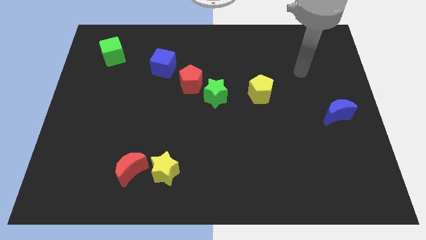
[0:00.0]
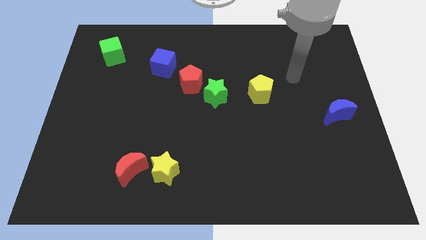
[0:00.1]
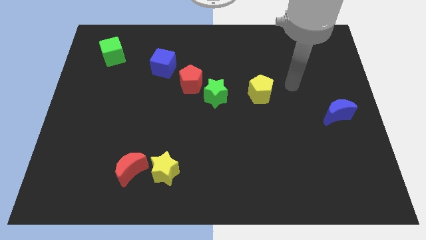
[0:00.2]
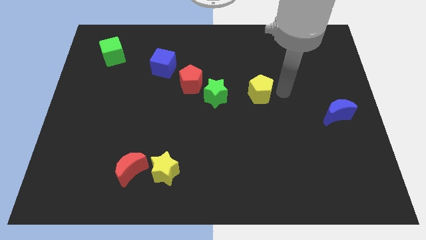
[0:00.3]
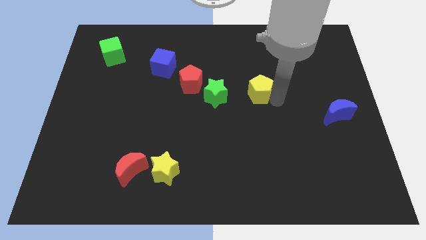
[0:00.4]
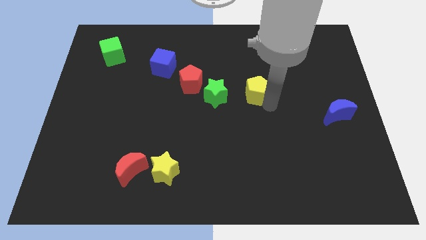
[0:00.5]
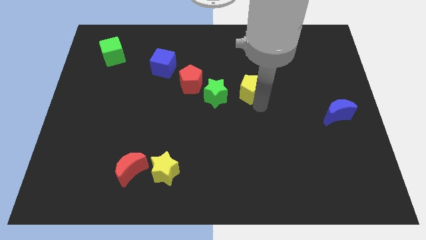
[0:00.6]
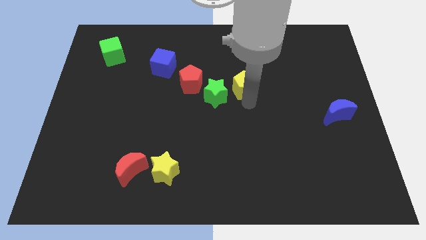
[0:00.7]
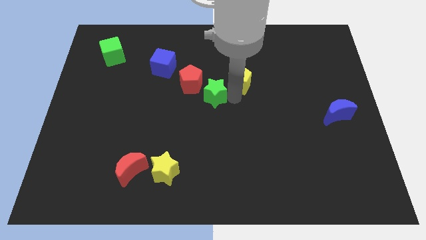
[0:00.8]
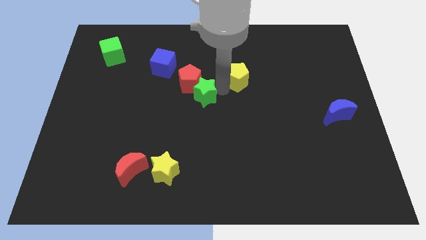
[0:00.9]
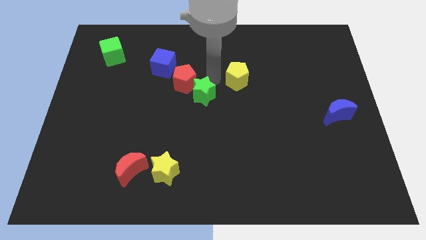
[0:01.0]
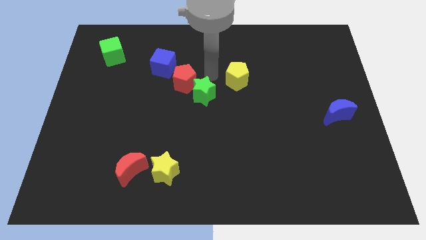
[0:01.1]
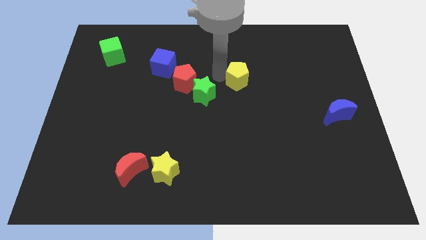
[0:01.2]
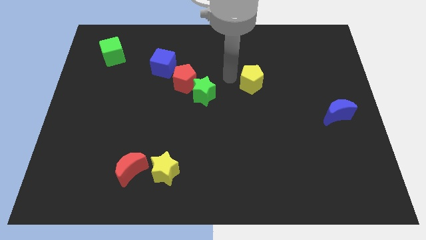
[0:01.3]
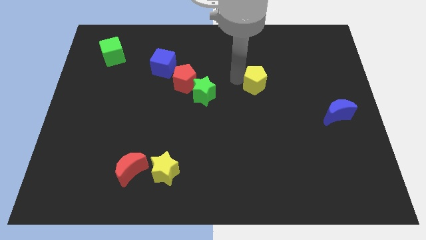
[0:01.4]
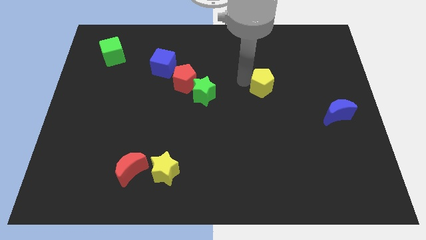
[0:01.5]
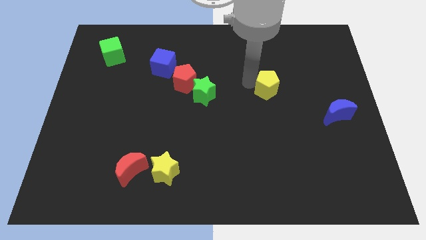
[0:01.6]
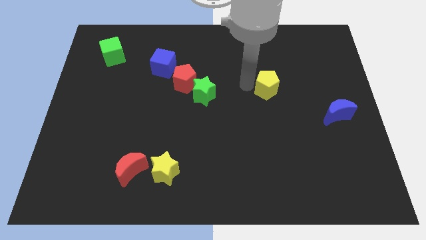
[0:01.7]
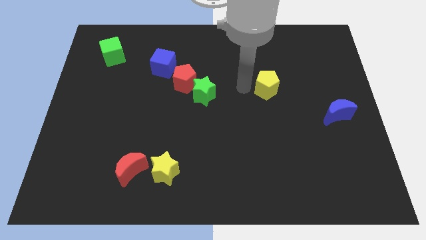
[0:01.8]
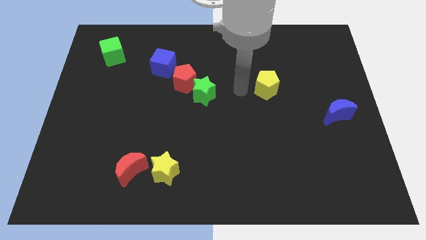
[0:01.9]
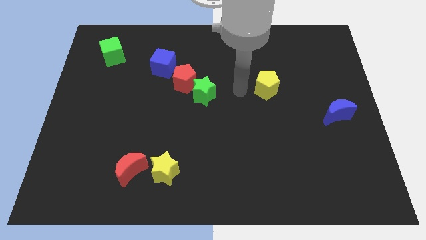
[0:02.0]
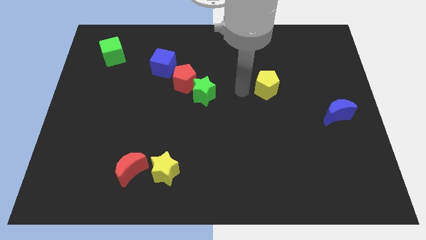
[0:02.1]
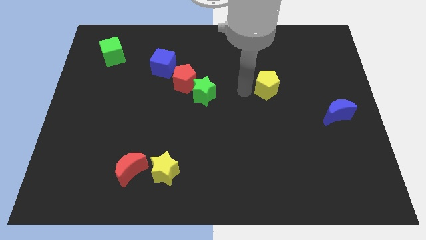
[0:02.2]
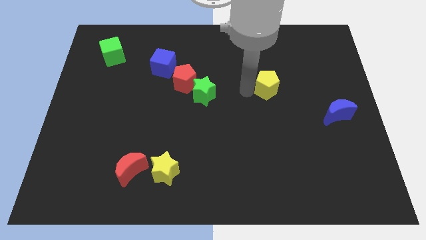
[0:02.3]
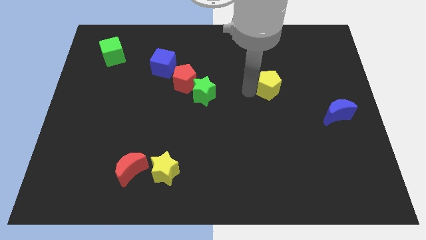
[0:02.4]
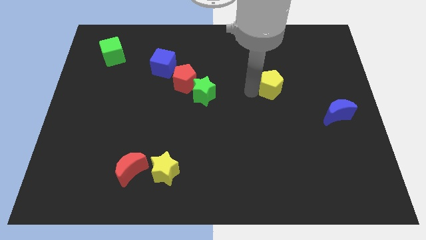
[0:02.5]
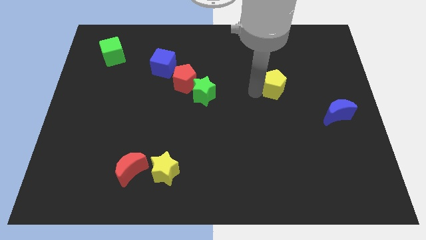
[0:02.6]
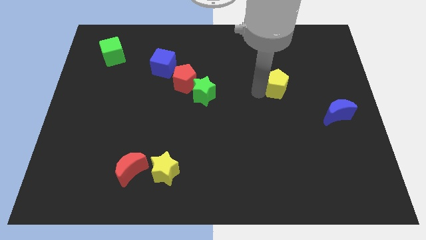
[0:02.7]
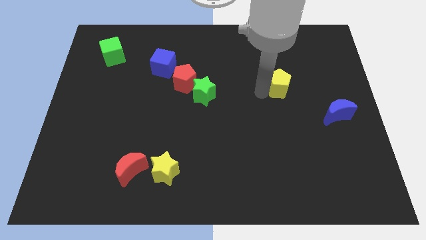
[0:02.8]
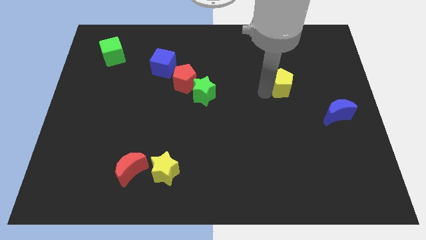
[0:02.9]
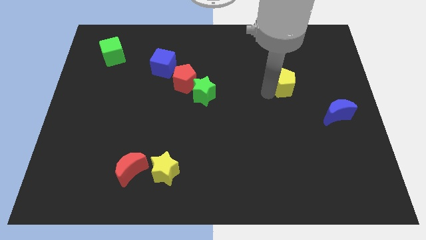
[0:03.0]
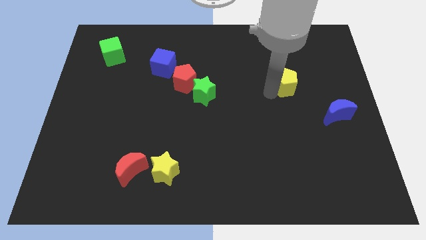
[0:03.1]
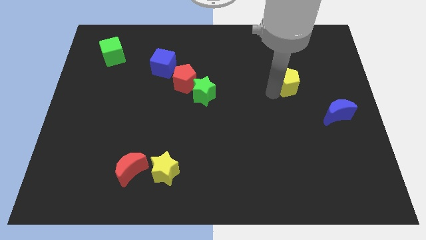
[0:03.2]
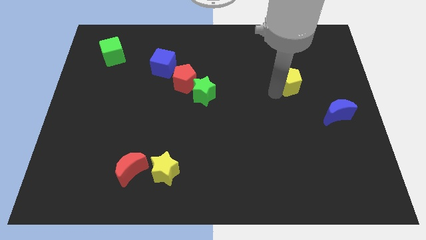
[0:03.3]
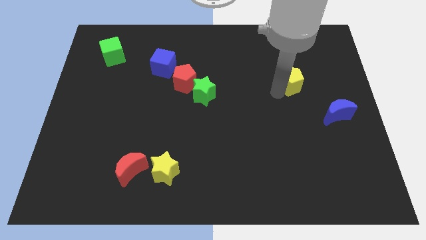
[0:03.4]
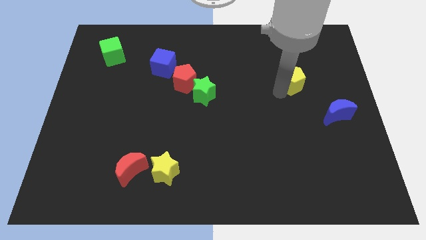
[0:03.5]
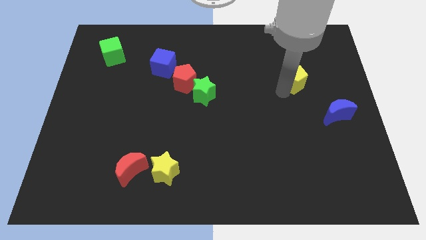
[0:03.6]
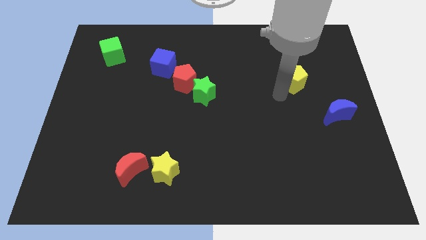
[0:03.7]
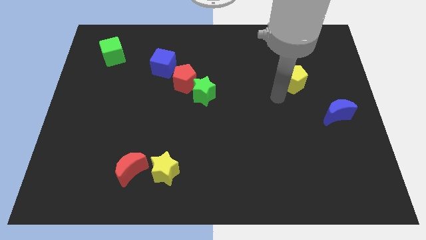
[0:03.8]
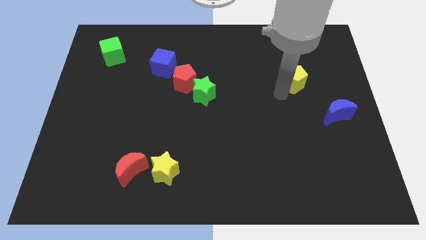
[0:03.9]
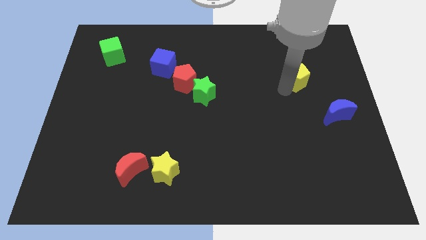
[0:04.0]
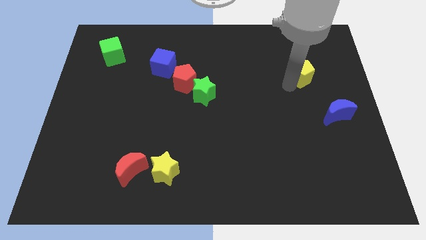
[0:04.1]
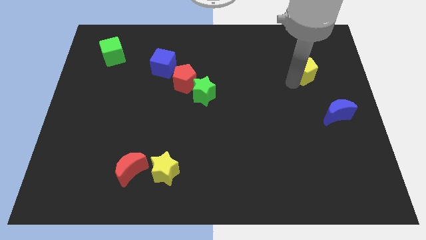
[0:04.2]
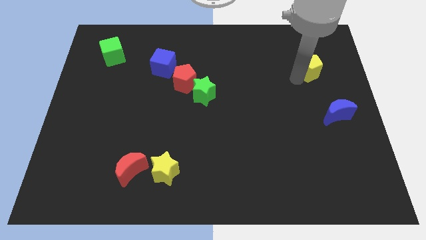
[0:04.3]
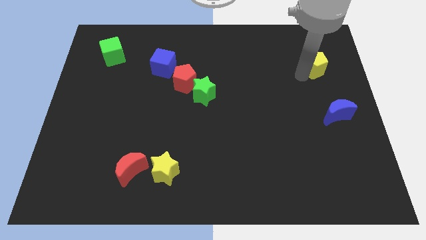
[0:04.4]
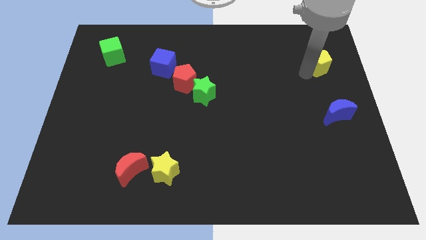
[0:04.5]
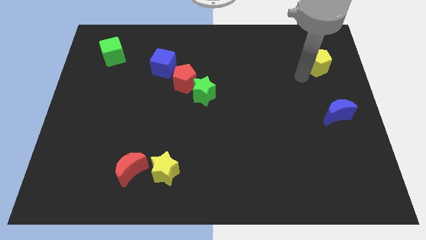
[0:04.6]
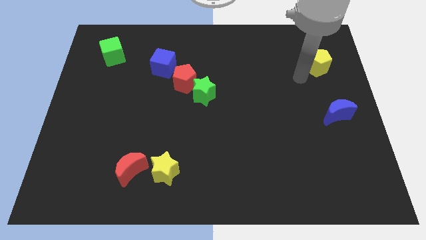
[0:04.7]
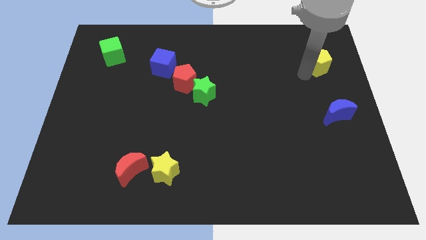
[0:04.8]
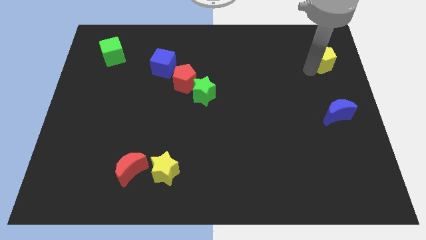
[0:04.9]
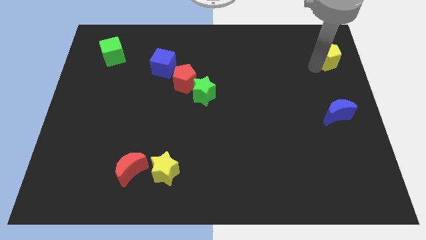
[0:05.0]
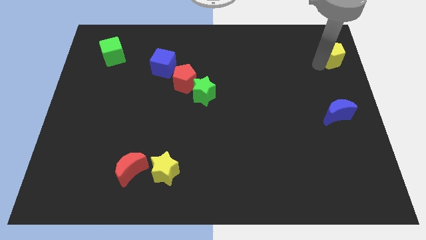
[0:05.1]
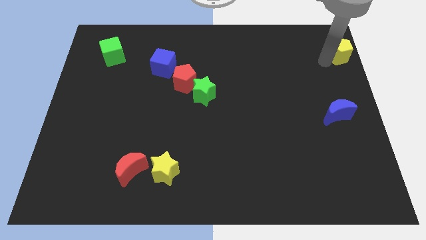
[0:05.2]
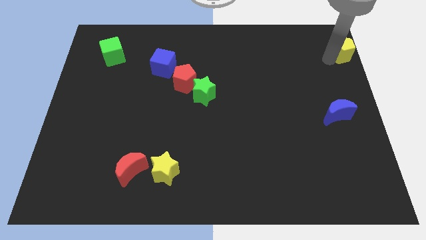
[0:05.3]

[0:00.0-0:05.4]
push the yellow pentagon to the upper right corner

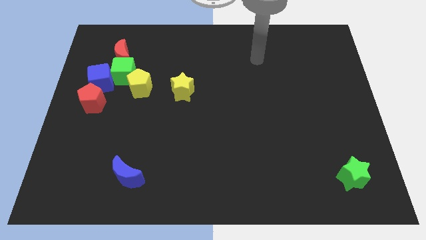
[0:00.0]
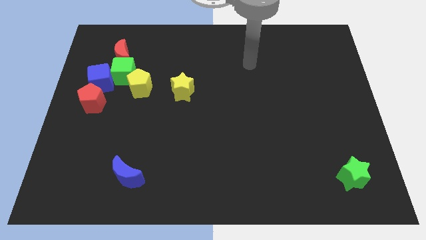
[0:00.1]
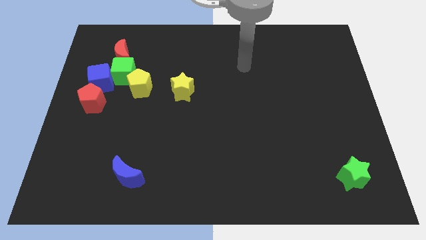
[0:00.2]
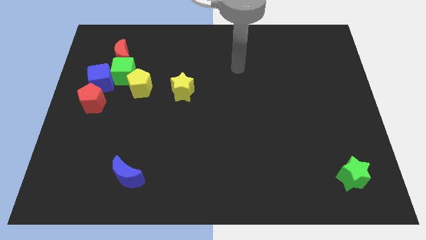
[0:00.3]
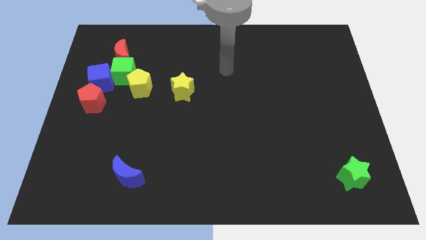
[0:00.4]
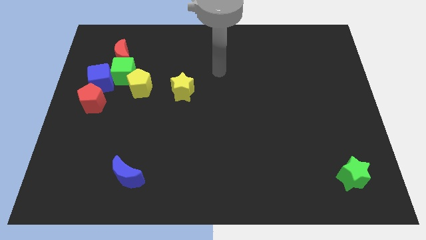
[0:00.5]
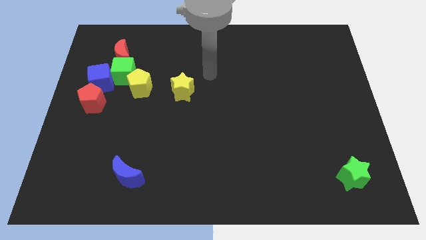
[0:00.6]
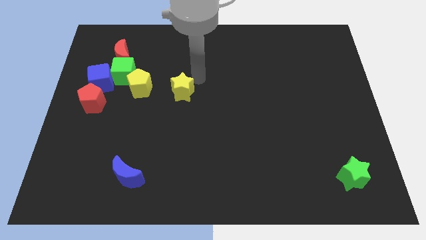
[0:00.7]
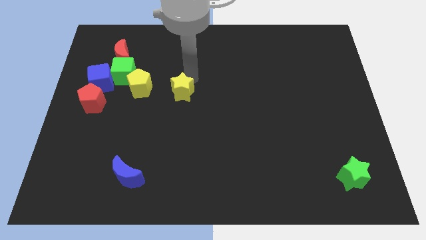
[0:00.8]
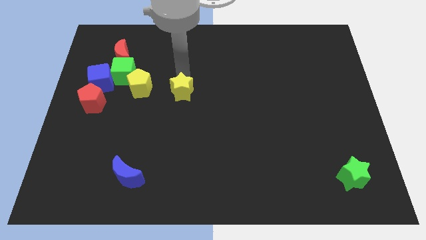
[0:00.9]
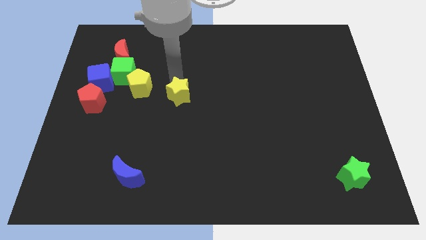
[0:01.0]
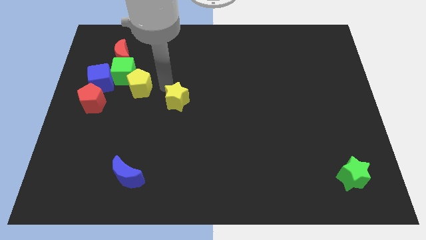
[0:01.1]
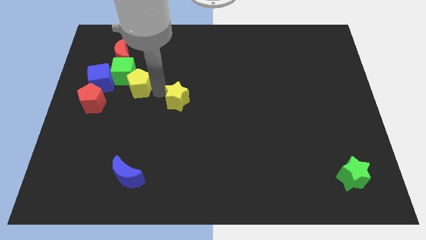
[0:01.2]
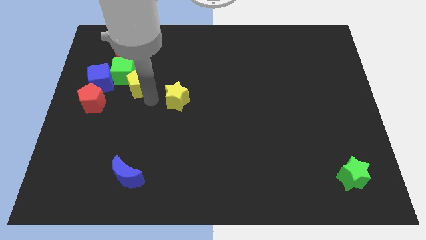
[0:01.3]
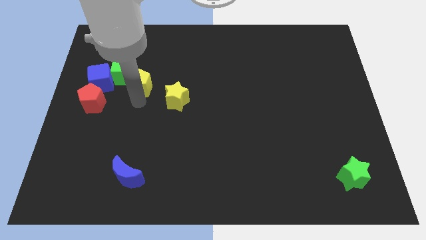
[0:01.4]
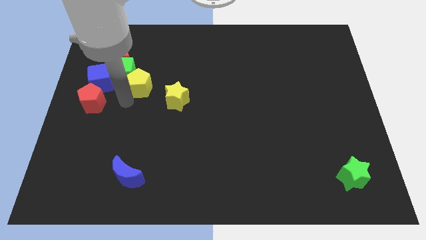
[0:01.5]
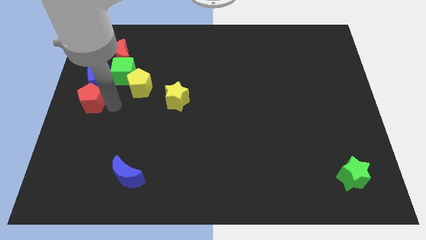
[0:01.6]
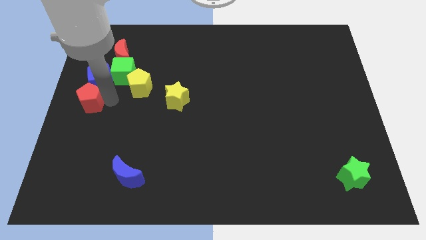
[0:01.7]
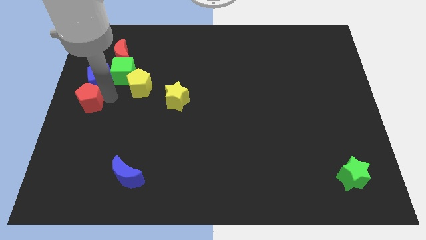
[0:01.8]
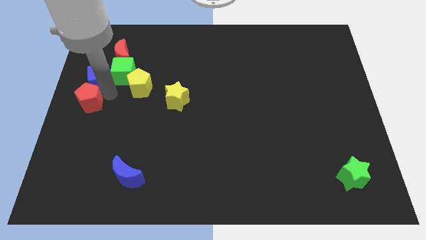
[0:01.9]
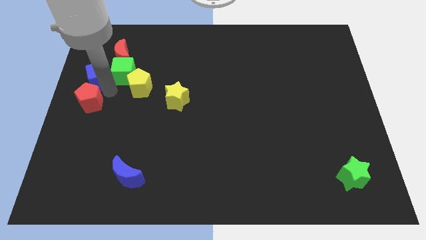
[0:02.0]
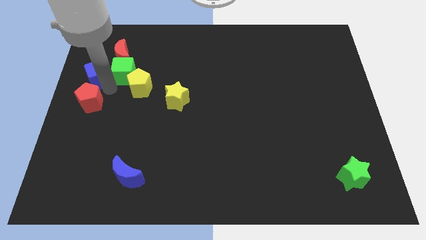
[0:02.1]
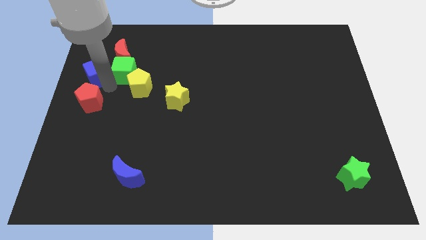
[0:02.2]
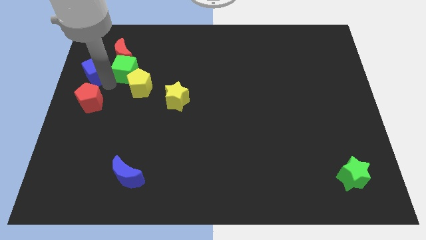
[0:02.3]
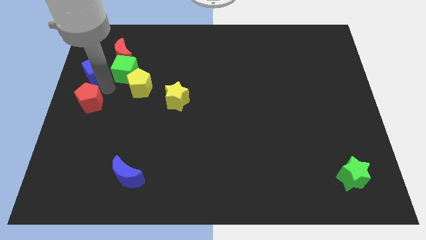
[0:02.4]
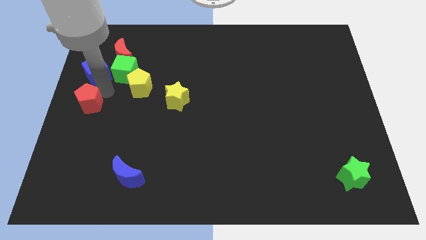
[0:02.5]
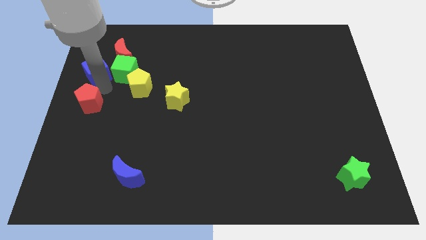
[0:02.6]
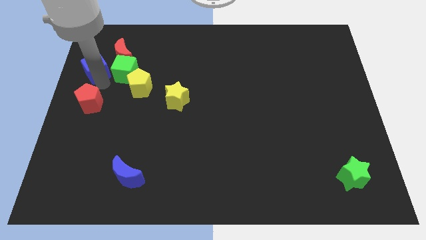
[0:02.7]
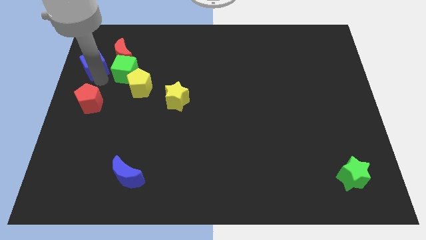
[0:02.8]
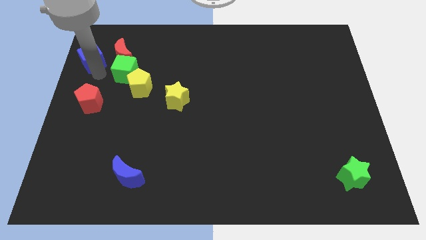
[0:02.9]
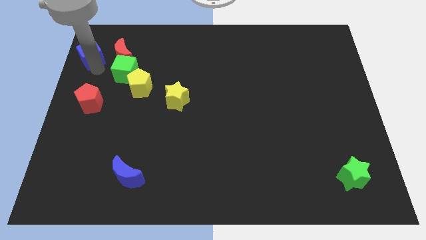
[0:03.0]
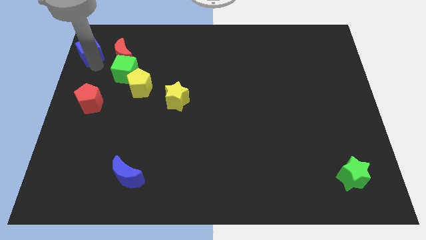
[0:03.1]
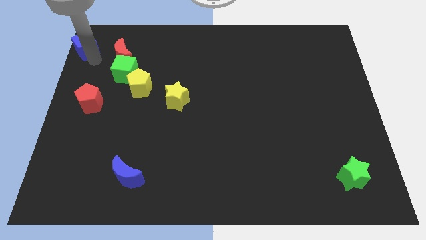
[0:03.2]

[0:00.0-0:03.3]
slide the blue cube to the upper left corner
